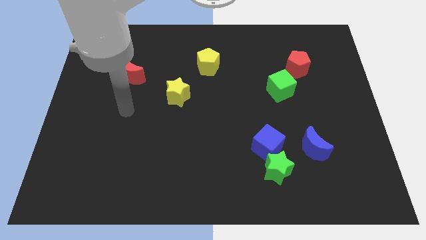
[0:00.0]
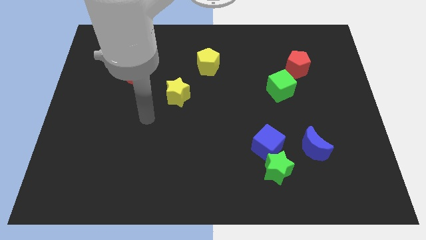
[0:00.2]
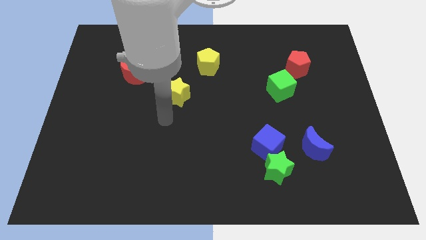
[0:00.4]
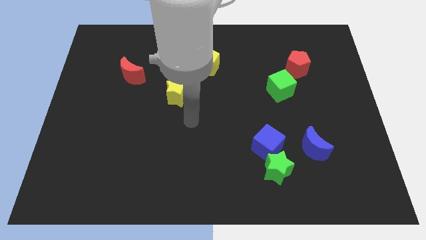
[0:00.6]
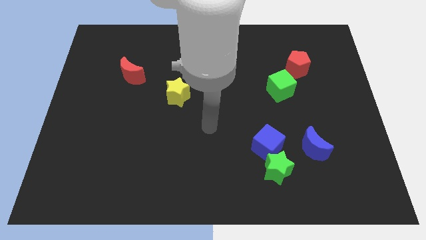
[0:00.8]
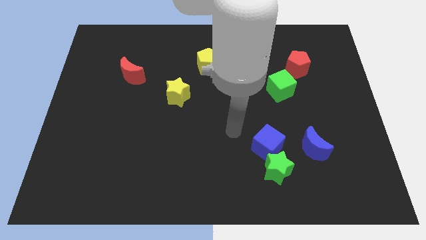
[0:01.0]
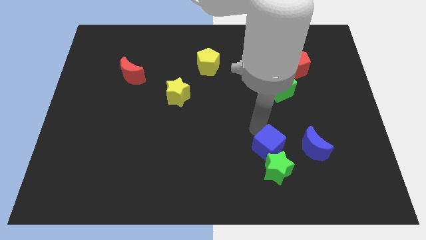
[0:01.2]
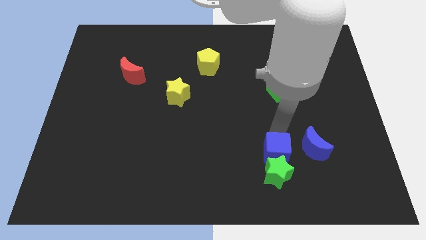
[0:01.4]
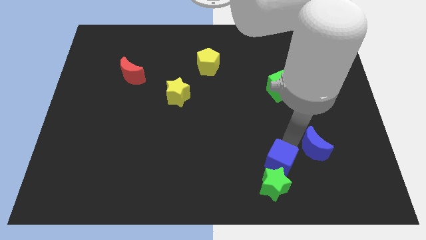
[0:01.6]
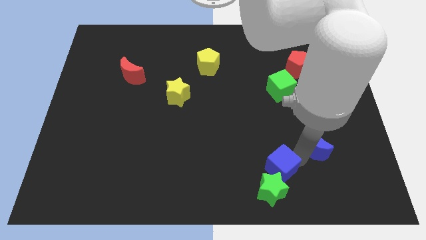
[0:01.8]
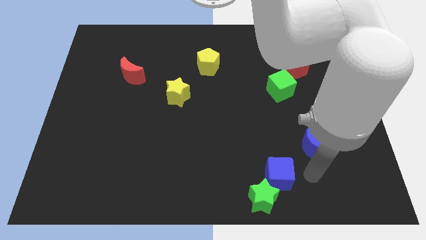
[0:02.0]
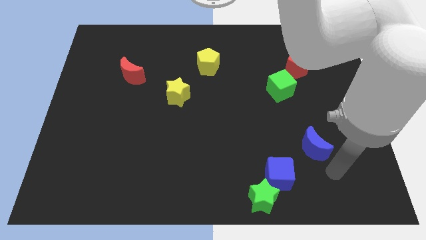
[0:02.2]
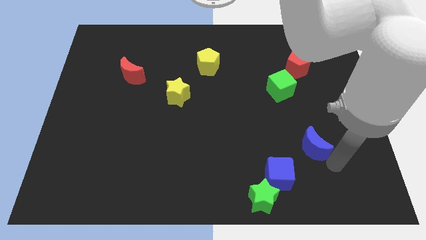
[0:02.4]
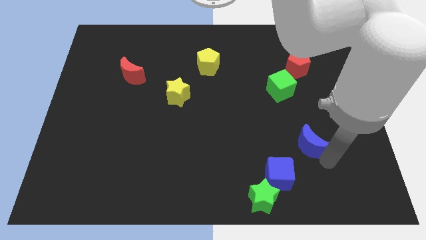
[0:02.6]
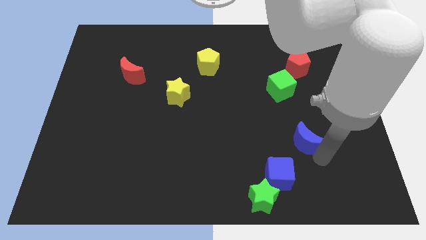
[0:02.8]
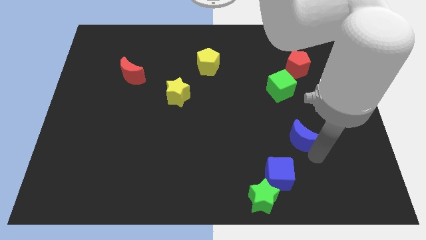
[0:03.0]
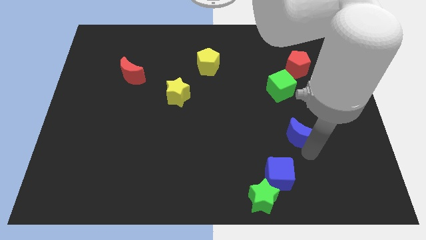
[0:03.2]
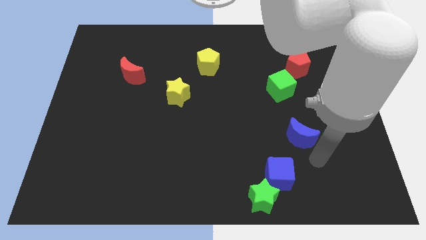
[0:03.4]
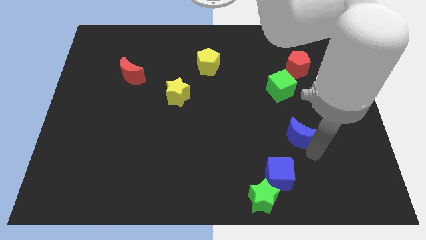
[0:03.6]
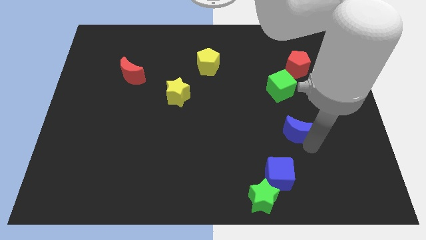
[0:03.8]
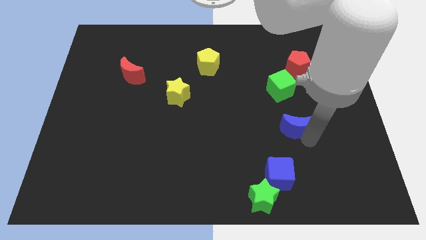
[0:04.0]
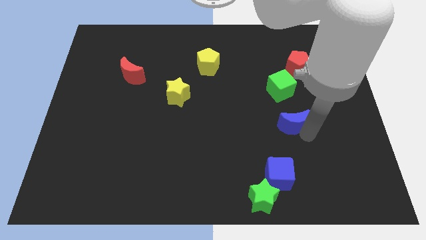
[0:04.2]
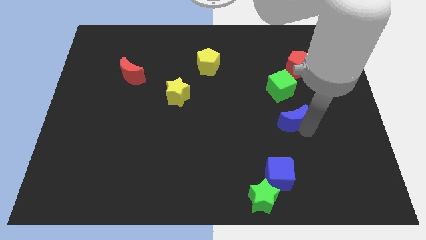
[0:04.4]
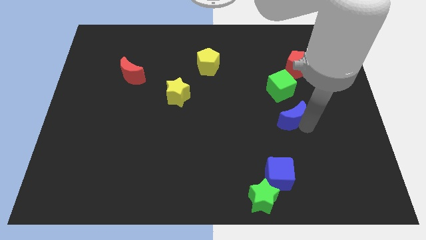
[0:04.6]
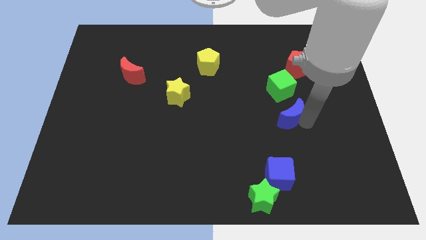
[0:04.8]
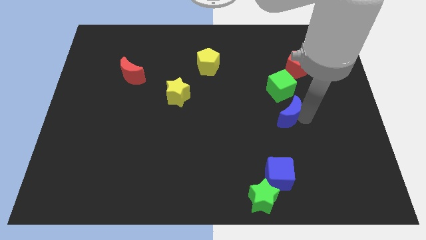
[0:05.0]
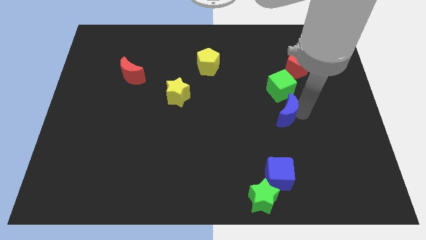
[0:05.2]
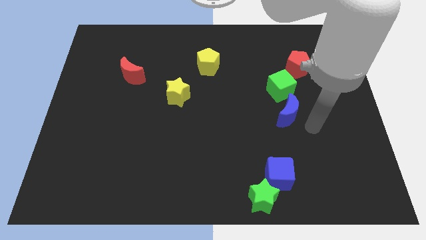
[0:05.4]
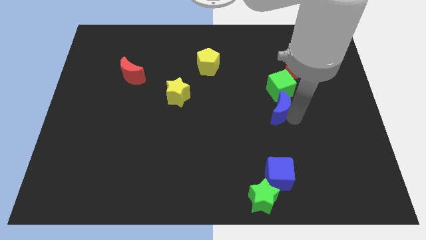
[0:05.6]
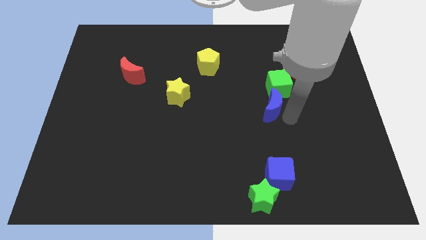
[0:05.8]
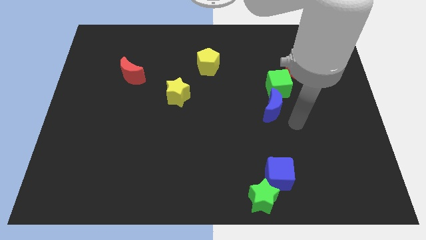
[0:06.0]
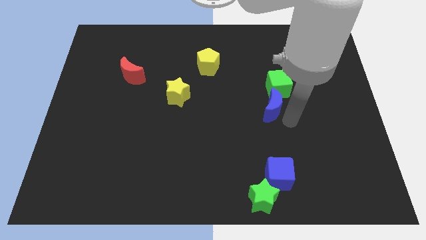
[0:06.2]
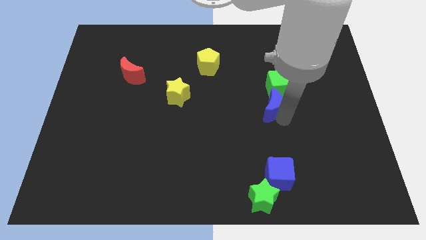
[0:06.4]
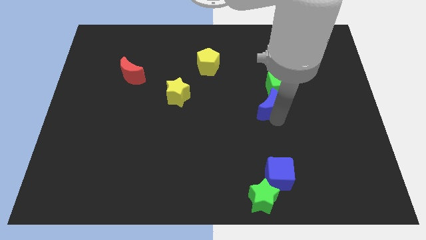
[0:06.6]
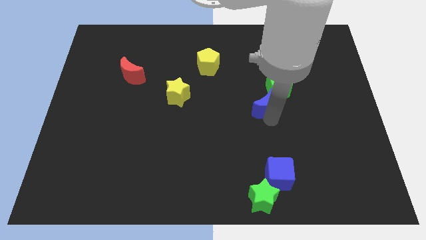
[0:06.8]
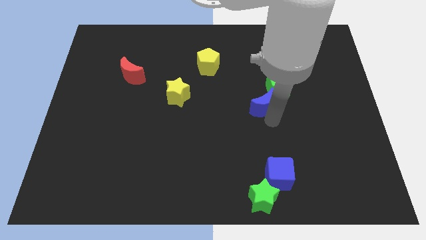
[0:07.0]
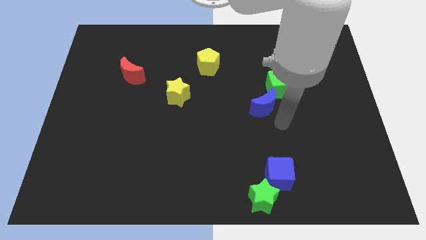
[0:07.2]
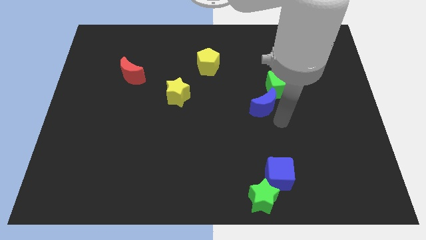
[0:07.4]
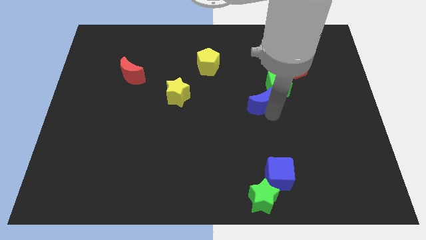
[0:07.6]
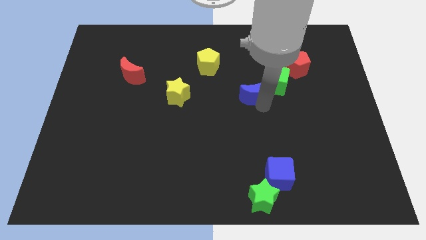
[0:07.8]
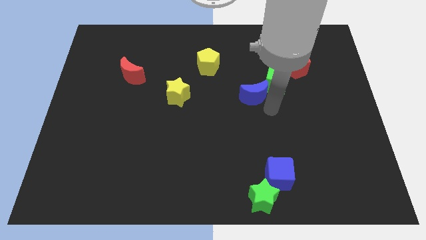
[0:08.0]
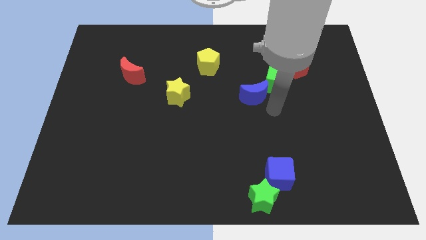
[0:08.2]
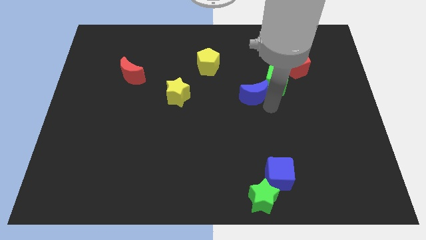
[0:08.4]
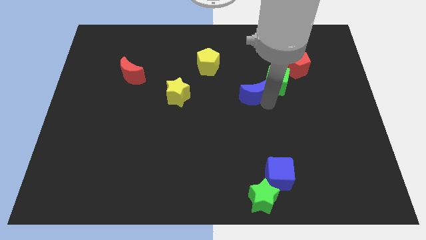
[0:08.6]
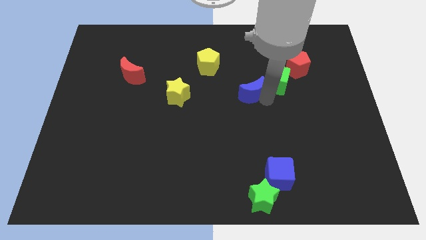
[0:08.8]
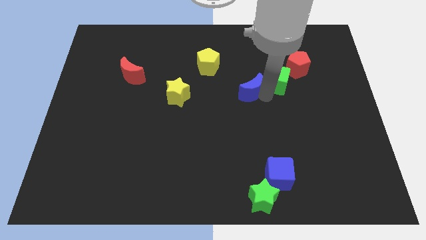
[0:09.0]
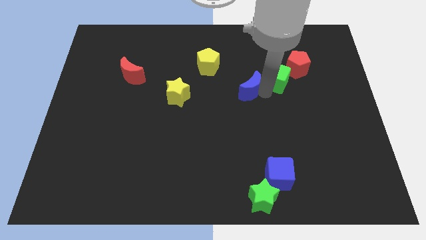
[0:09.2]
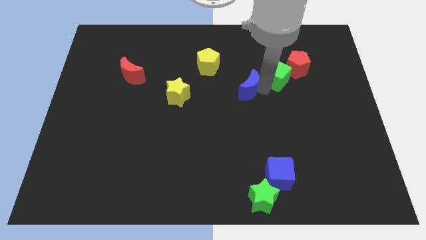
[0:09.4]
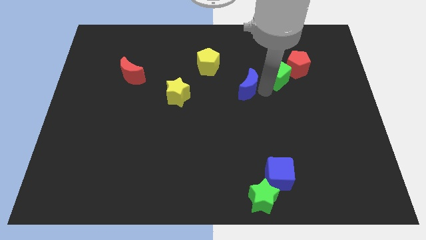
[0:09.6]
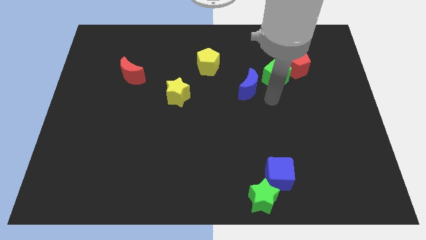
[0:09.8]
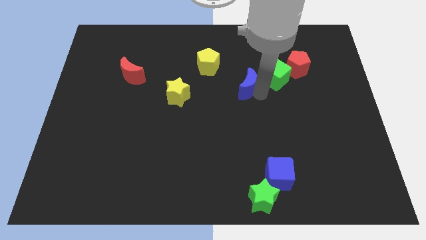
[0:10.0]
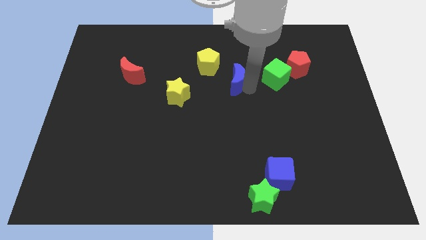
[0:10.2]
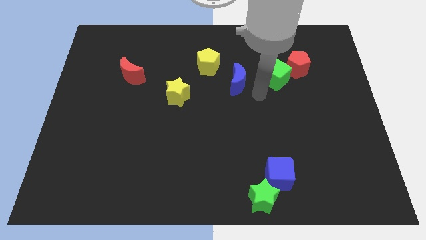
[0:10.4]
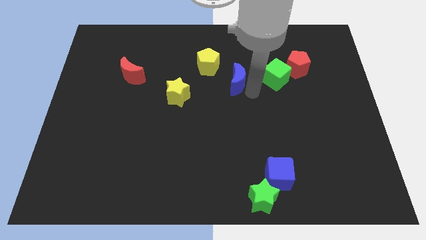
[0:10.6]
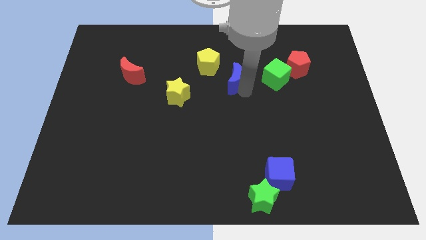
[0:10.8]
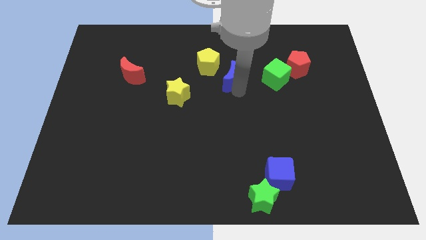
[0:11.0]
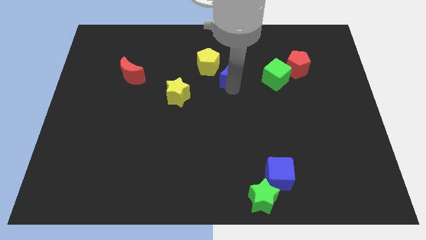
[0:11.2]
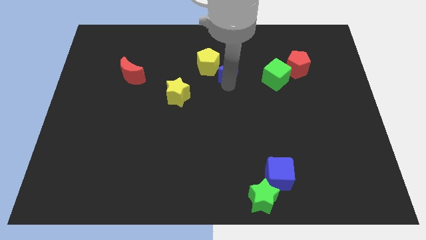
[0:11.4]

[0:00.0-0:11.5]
slide the blue moon towards the yellow pentagon

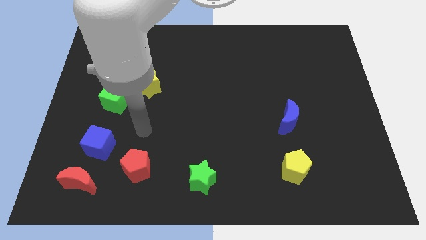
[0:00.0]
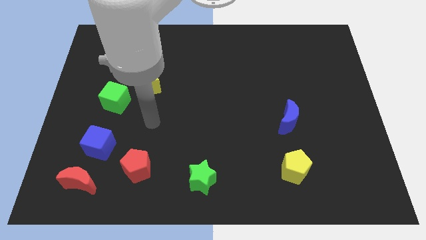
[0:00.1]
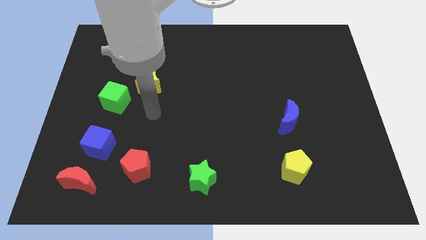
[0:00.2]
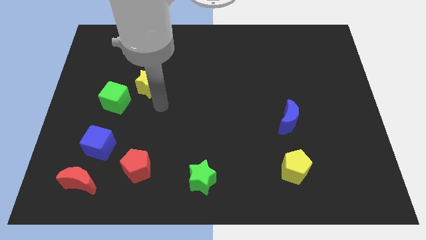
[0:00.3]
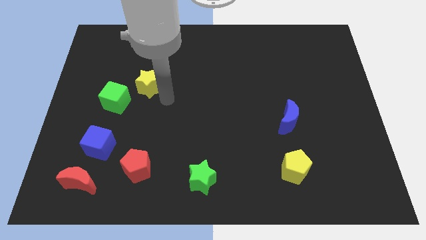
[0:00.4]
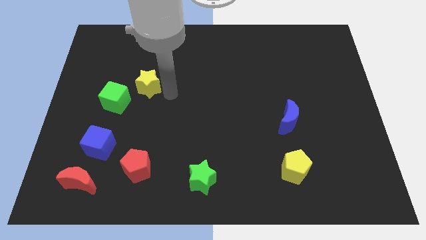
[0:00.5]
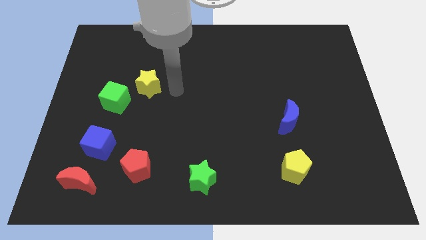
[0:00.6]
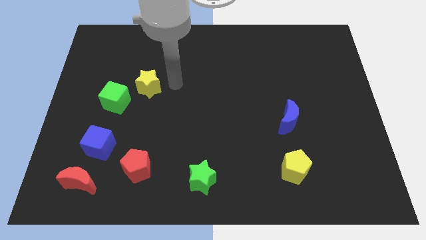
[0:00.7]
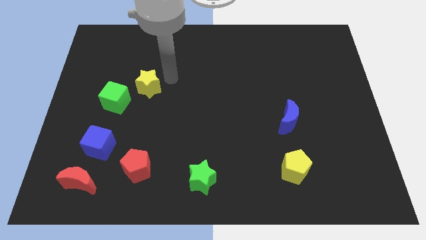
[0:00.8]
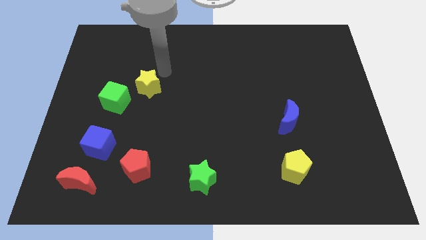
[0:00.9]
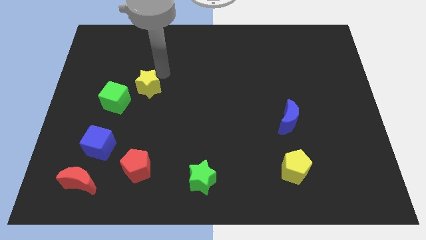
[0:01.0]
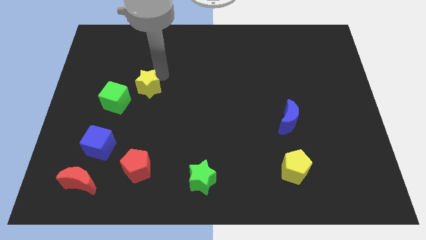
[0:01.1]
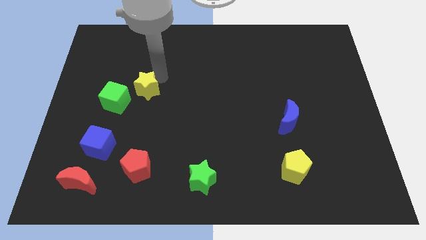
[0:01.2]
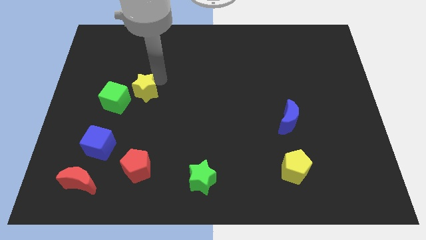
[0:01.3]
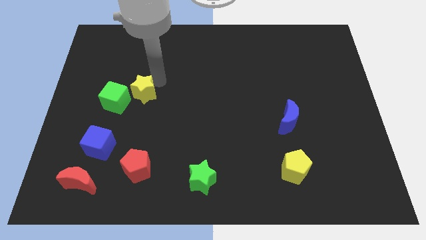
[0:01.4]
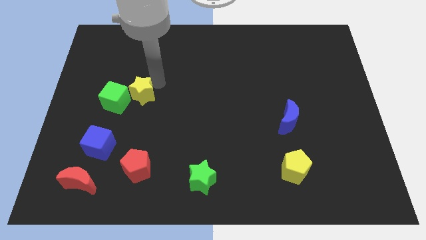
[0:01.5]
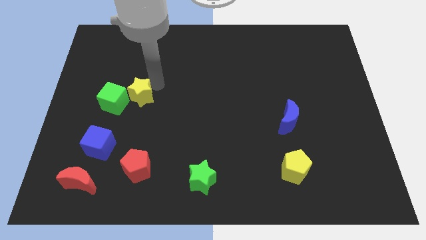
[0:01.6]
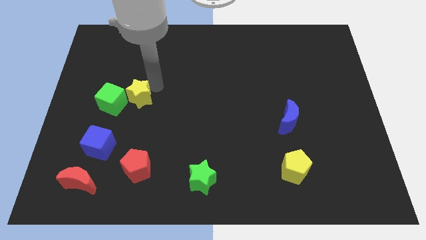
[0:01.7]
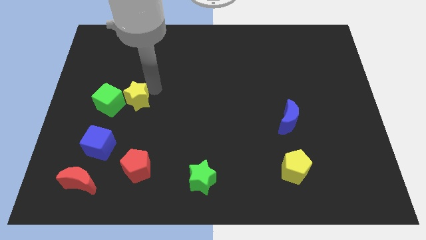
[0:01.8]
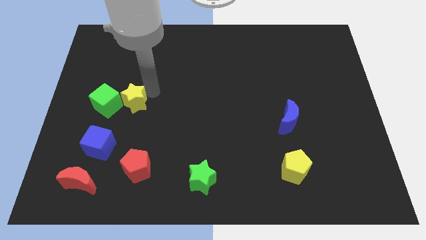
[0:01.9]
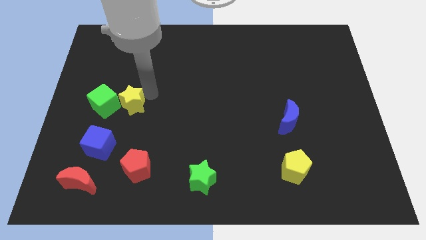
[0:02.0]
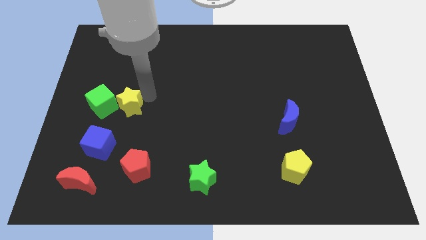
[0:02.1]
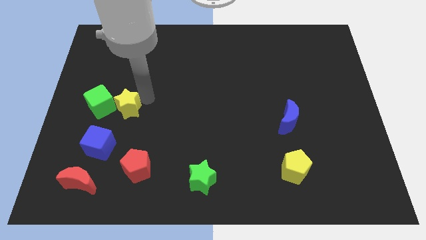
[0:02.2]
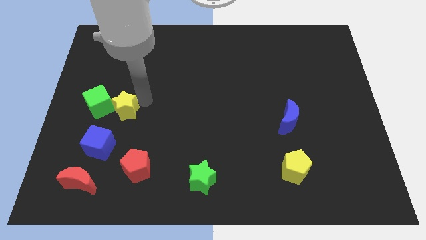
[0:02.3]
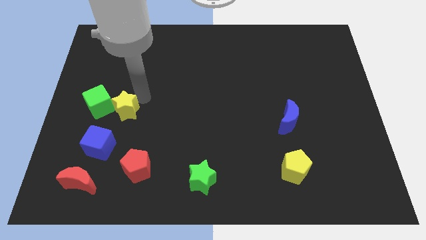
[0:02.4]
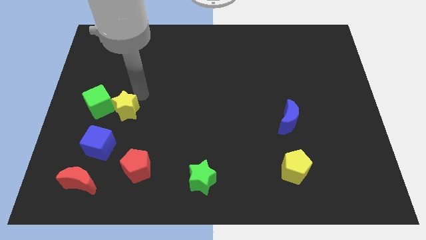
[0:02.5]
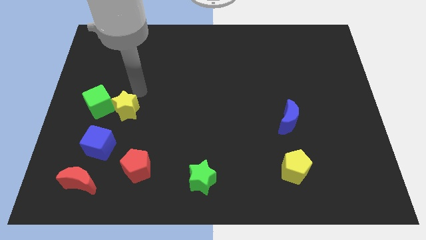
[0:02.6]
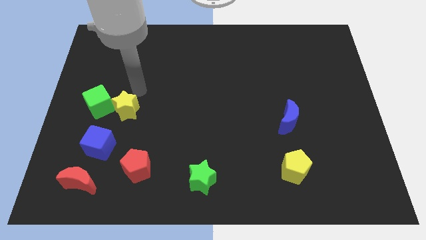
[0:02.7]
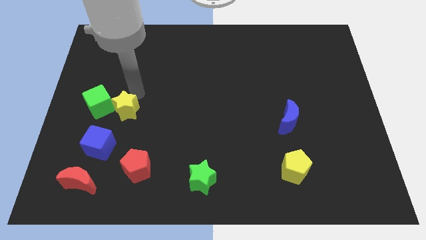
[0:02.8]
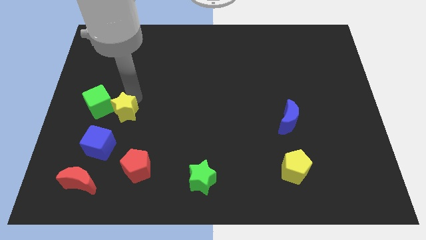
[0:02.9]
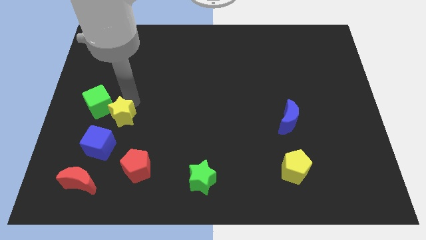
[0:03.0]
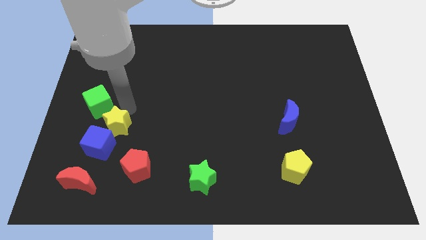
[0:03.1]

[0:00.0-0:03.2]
slide the yellow star to the blue cube
